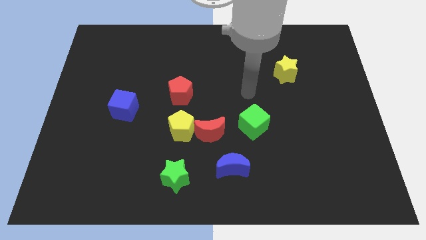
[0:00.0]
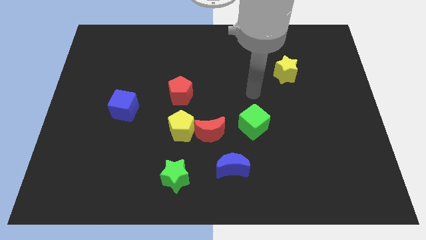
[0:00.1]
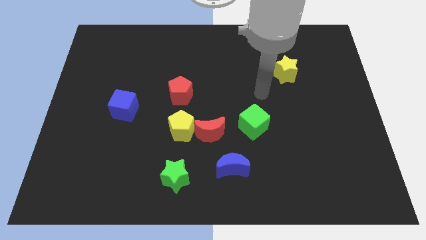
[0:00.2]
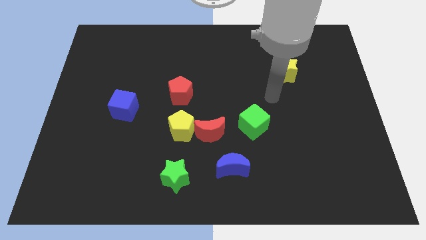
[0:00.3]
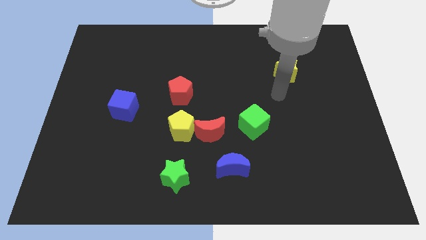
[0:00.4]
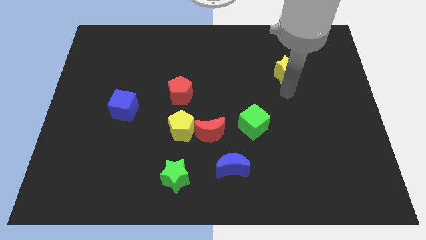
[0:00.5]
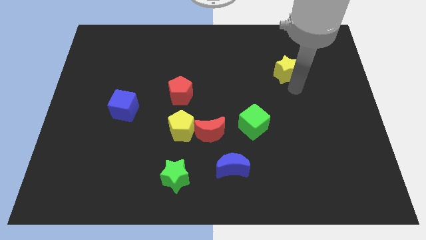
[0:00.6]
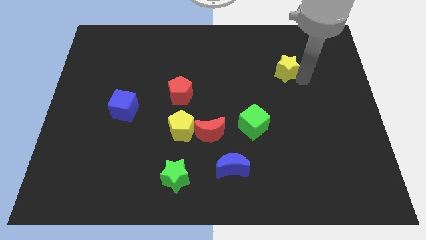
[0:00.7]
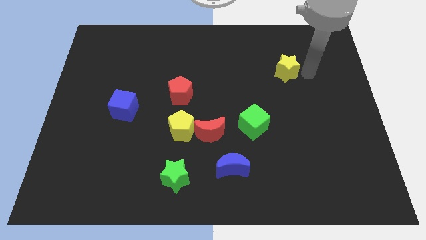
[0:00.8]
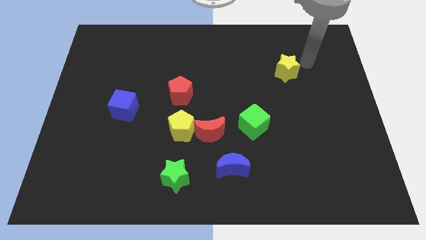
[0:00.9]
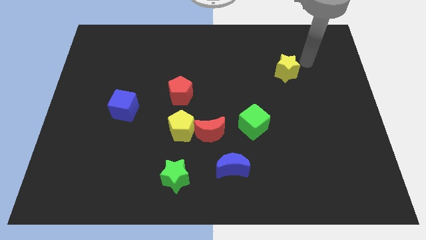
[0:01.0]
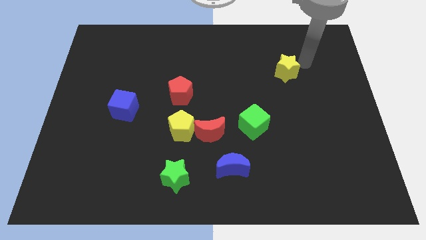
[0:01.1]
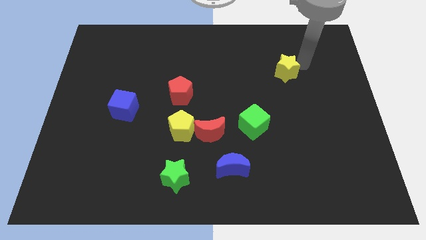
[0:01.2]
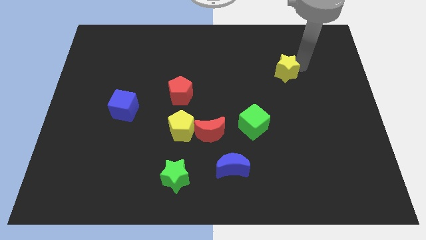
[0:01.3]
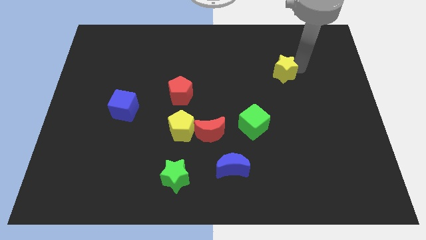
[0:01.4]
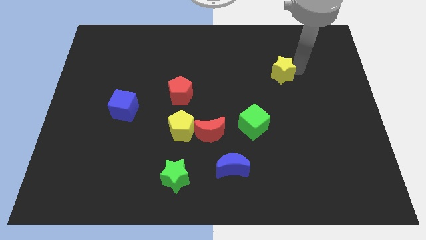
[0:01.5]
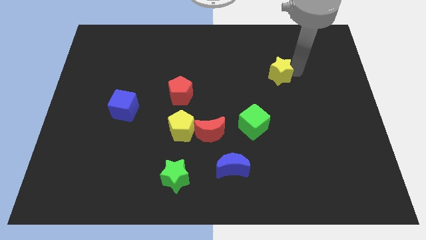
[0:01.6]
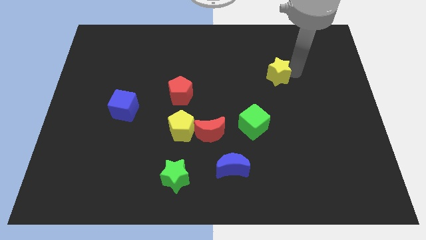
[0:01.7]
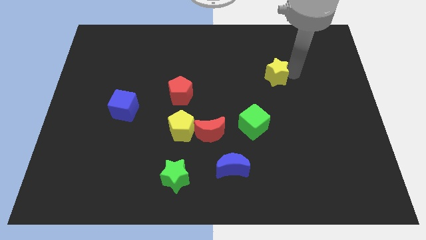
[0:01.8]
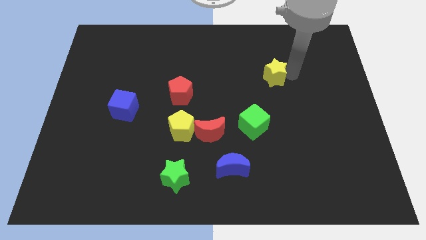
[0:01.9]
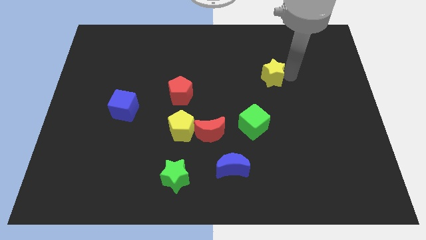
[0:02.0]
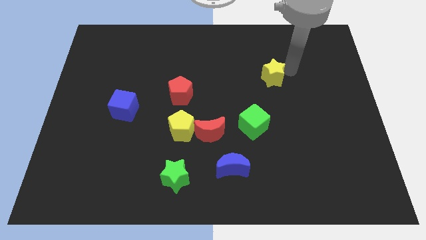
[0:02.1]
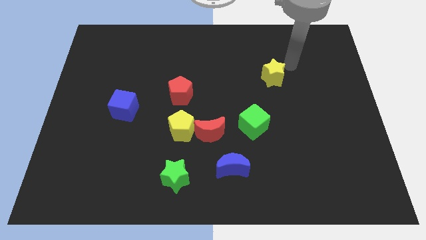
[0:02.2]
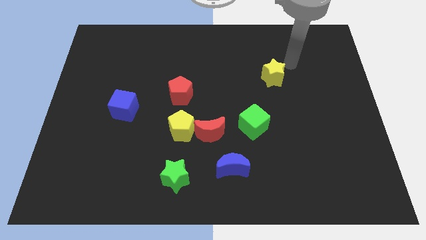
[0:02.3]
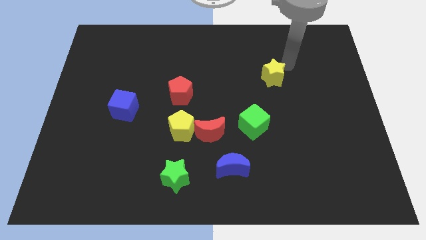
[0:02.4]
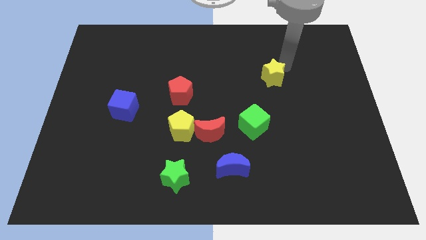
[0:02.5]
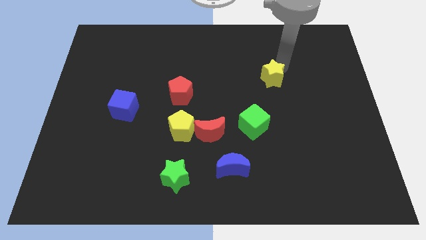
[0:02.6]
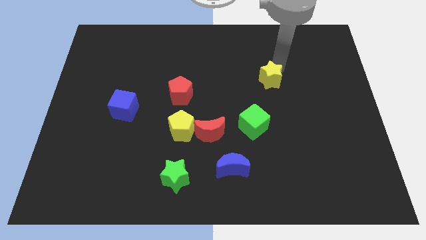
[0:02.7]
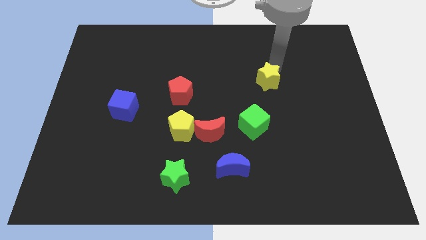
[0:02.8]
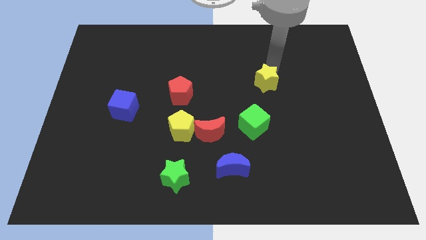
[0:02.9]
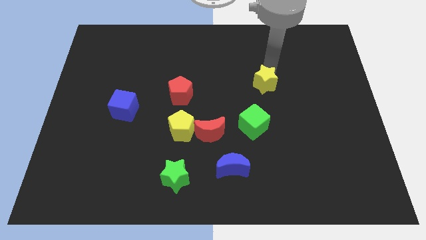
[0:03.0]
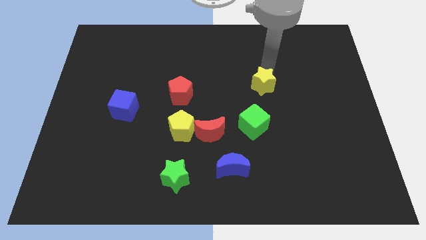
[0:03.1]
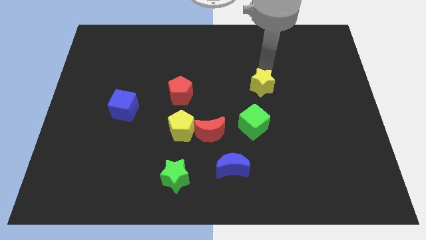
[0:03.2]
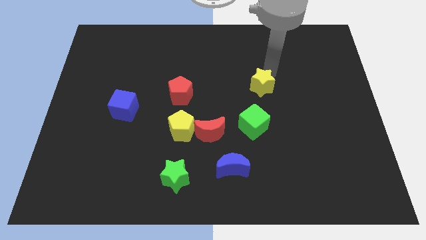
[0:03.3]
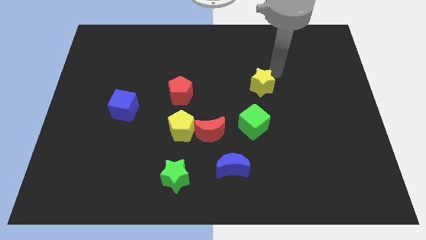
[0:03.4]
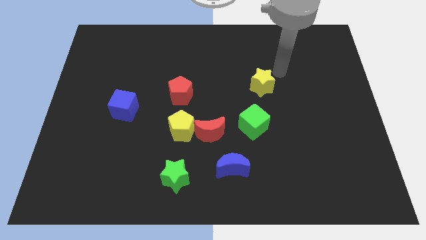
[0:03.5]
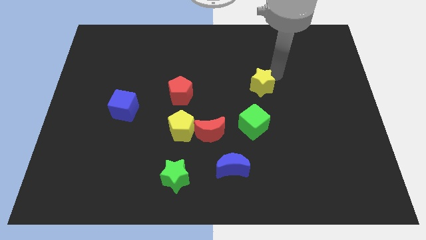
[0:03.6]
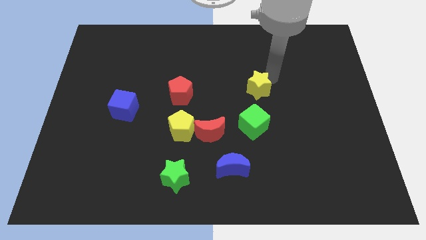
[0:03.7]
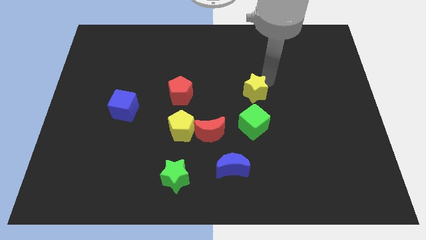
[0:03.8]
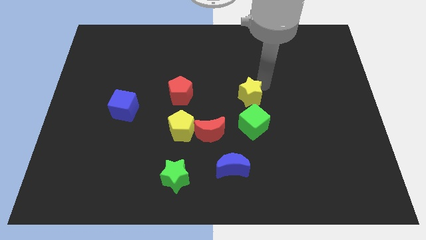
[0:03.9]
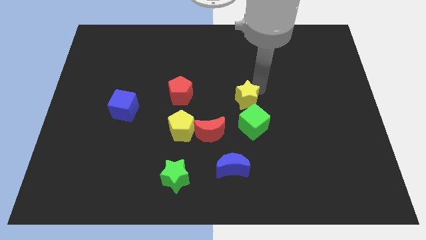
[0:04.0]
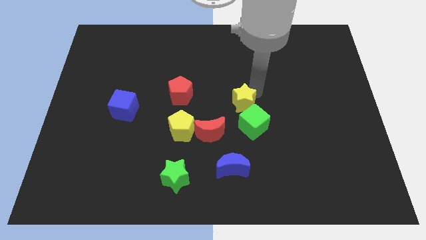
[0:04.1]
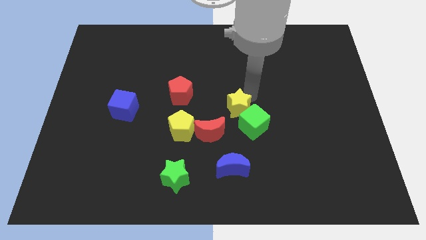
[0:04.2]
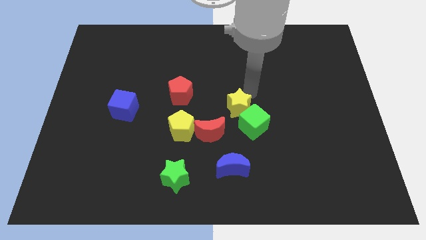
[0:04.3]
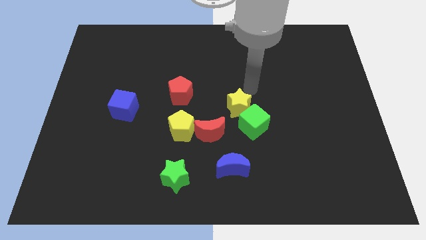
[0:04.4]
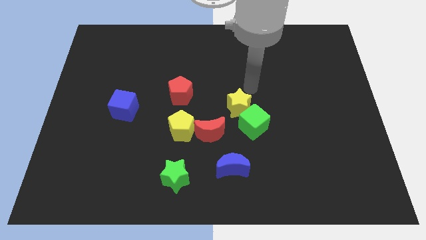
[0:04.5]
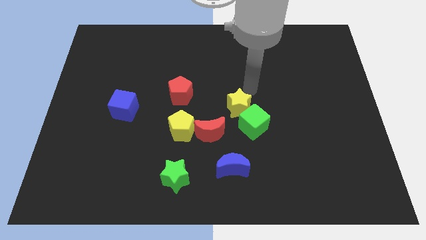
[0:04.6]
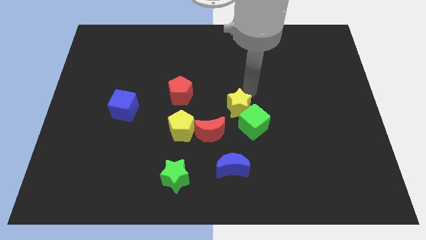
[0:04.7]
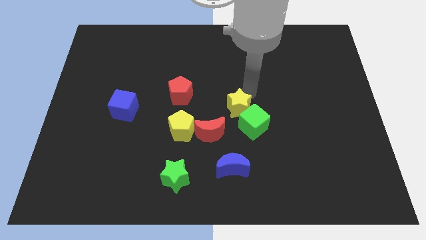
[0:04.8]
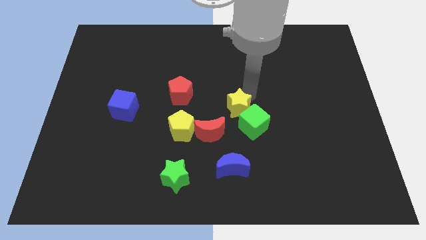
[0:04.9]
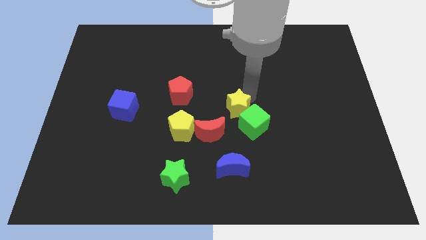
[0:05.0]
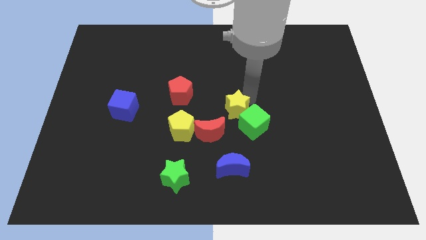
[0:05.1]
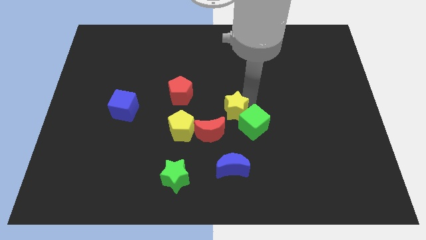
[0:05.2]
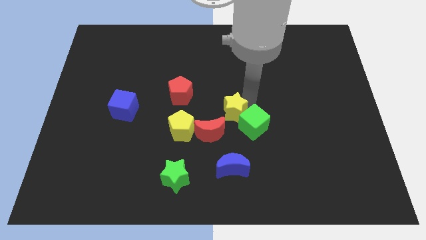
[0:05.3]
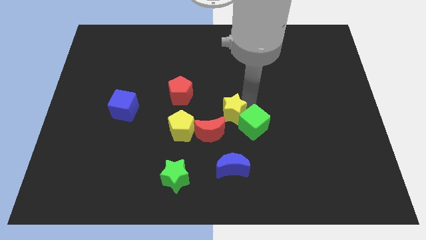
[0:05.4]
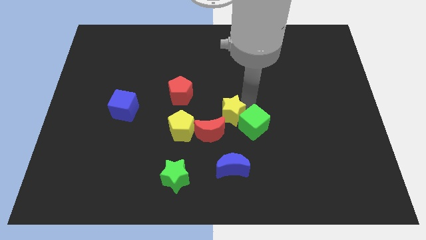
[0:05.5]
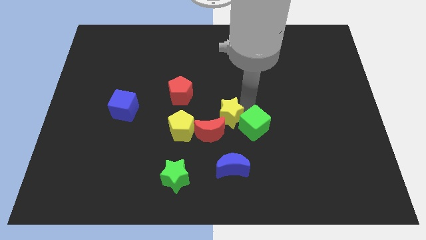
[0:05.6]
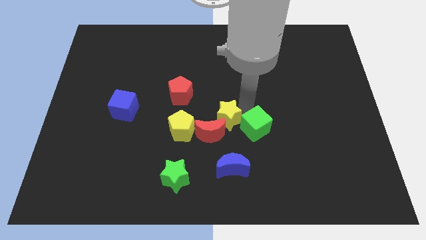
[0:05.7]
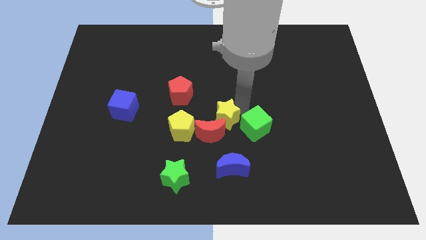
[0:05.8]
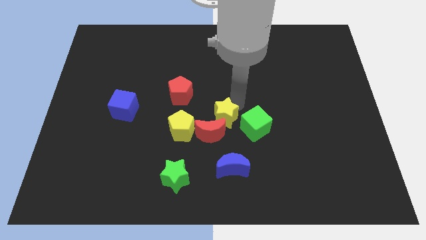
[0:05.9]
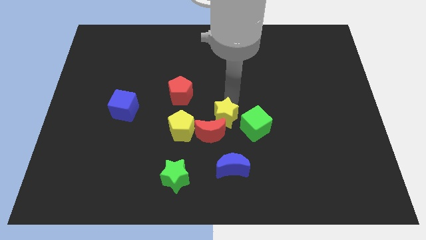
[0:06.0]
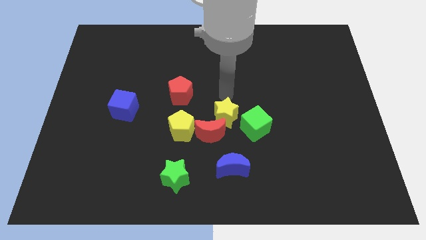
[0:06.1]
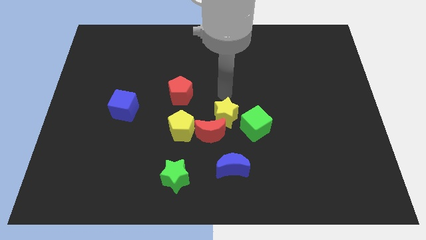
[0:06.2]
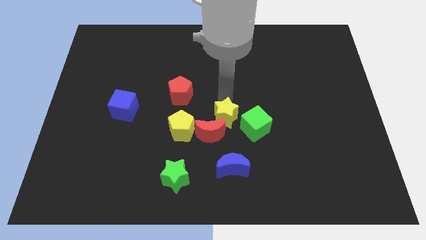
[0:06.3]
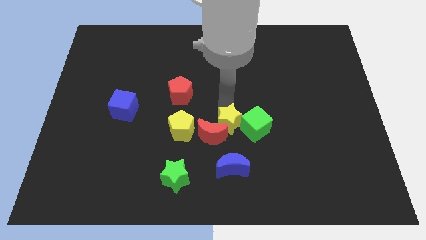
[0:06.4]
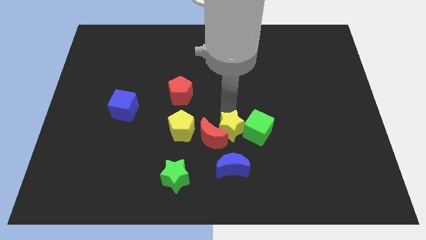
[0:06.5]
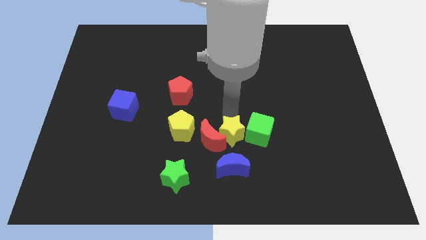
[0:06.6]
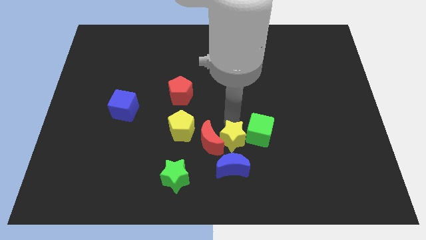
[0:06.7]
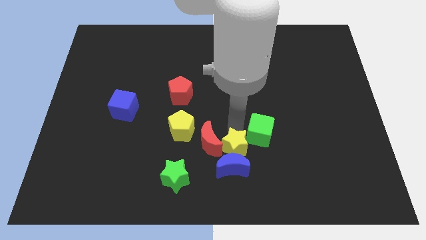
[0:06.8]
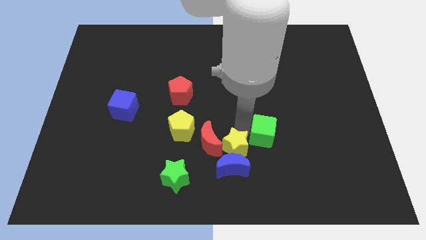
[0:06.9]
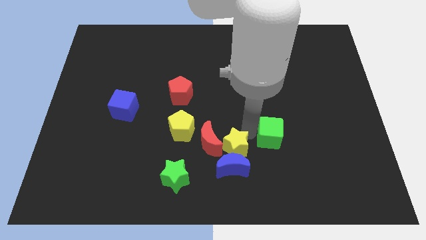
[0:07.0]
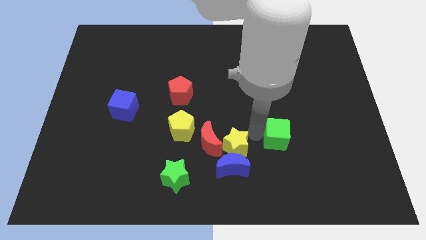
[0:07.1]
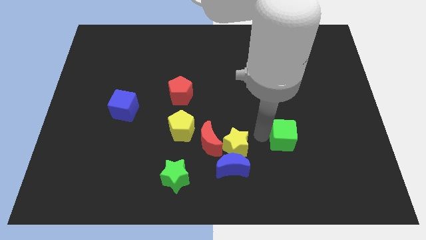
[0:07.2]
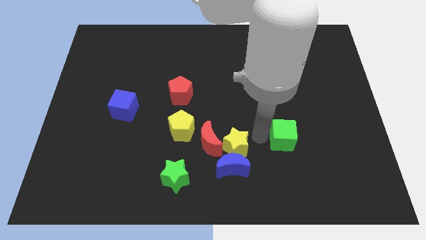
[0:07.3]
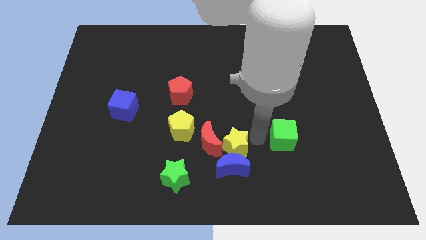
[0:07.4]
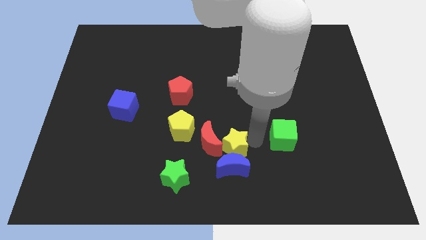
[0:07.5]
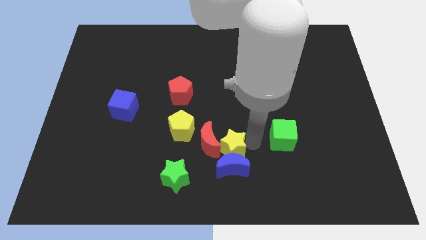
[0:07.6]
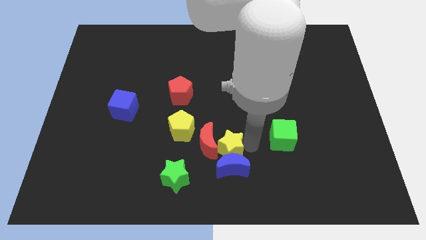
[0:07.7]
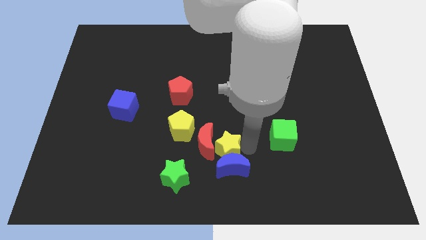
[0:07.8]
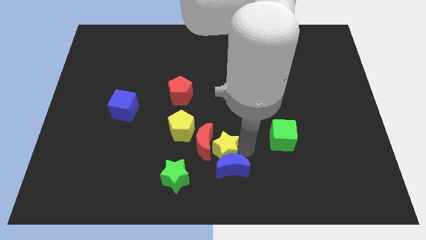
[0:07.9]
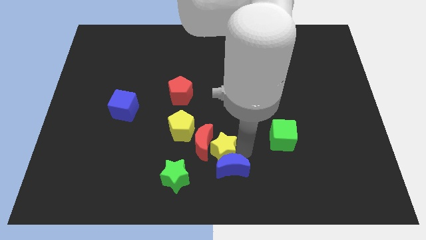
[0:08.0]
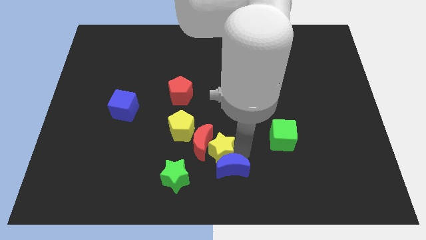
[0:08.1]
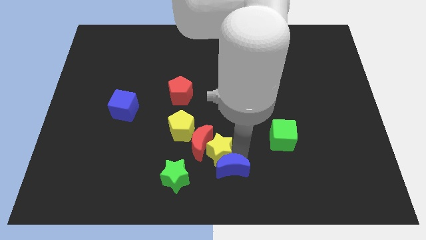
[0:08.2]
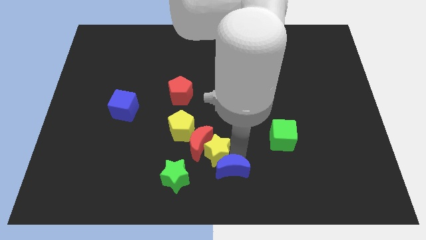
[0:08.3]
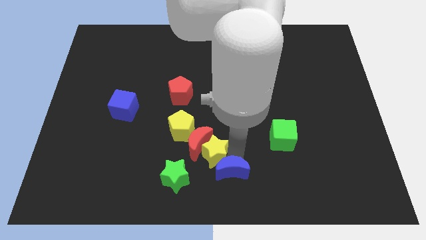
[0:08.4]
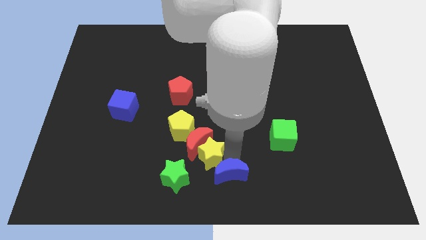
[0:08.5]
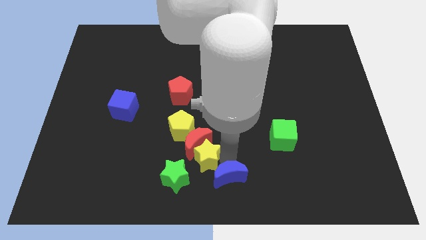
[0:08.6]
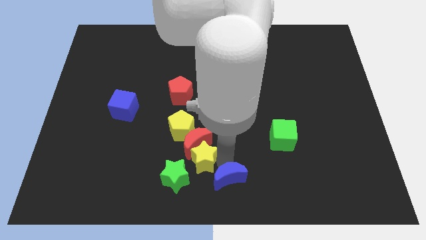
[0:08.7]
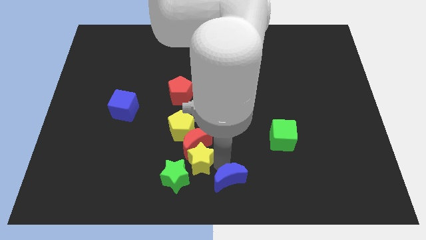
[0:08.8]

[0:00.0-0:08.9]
slide the yellow star next to the green star
